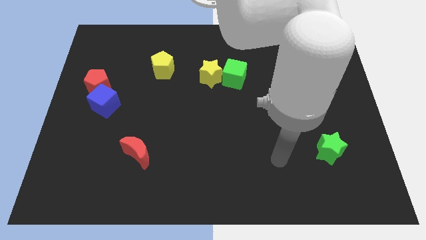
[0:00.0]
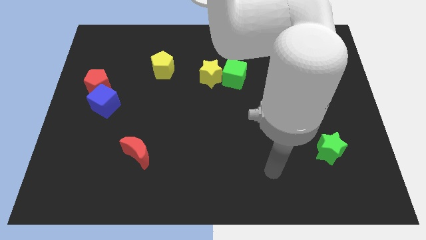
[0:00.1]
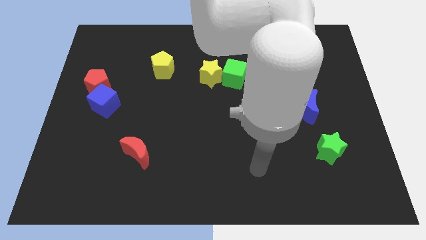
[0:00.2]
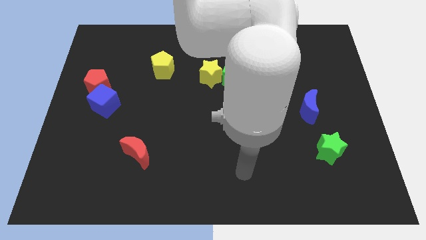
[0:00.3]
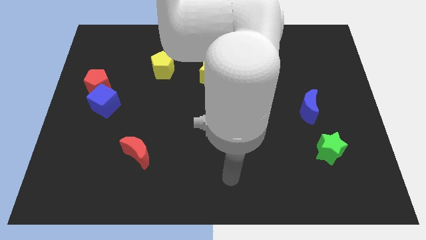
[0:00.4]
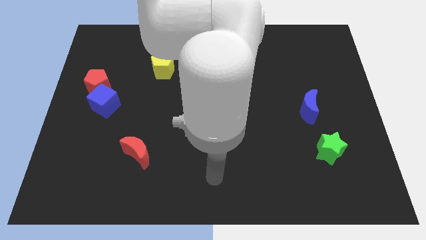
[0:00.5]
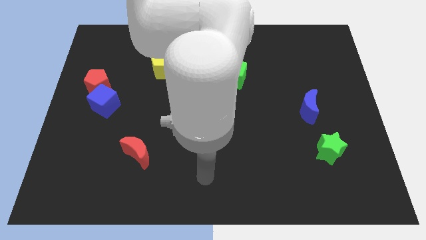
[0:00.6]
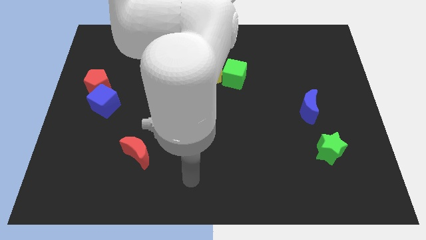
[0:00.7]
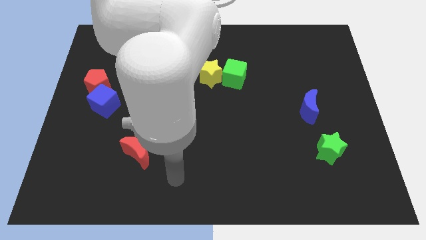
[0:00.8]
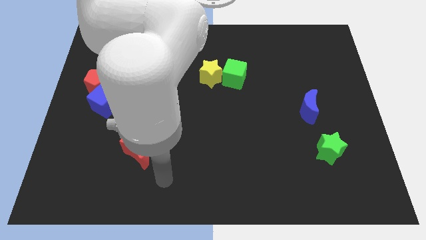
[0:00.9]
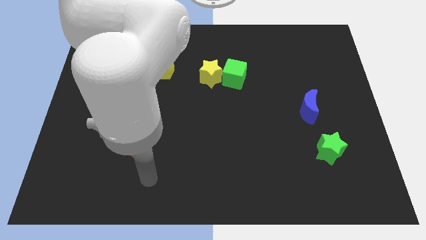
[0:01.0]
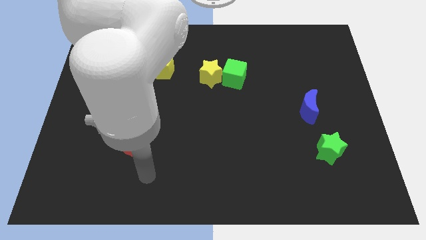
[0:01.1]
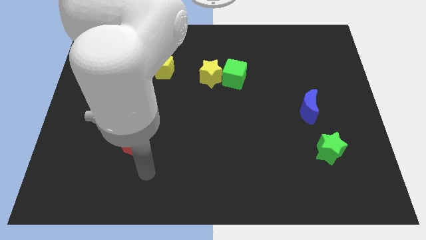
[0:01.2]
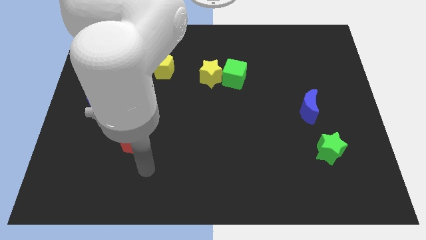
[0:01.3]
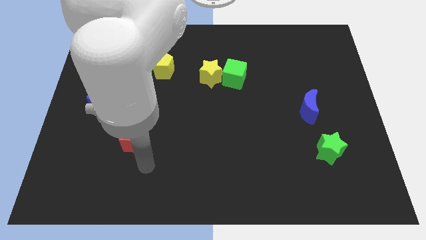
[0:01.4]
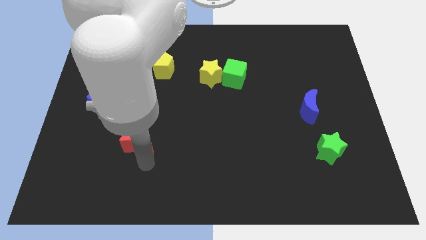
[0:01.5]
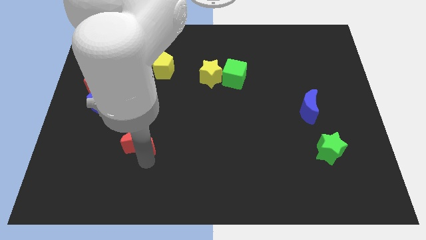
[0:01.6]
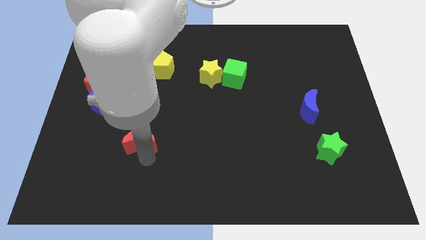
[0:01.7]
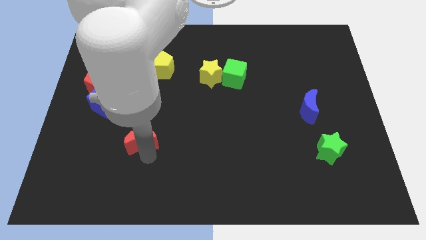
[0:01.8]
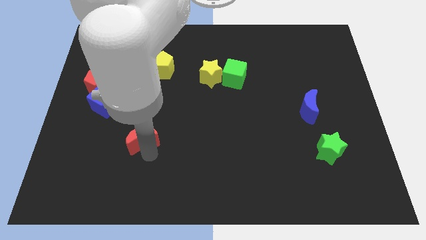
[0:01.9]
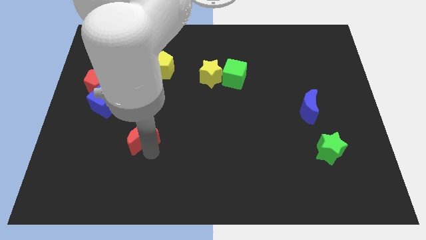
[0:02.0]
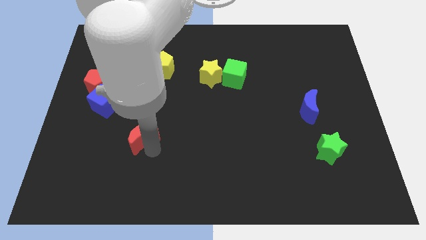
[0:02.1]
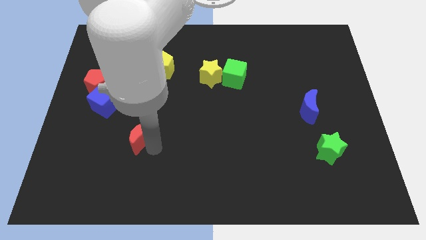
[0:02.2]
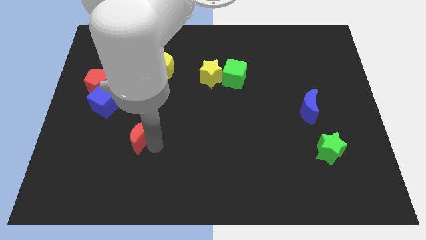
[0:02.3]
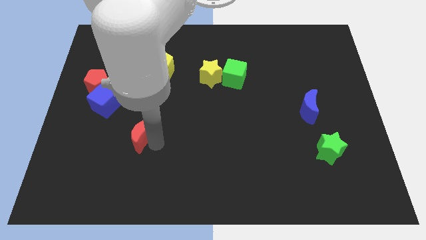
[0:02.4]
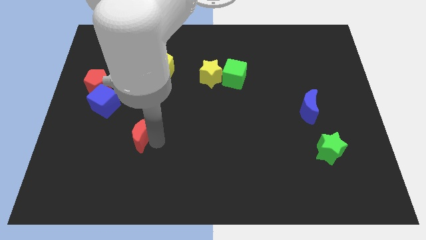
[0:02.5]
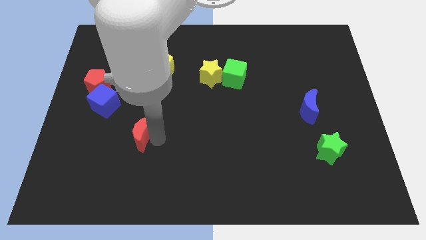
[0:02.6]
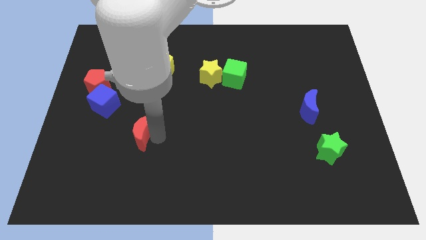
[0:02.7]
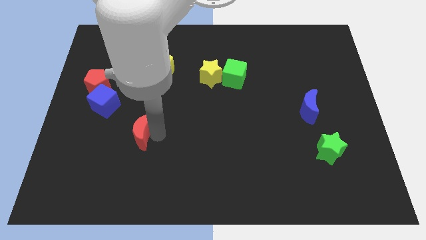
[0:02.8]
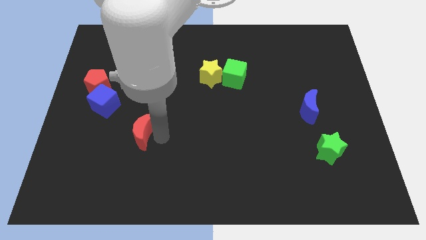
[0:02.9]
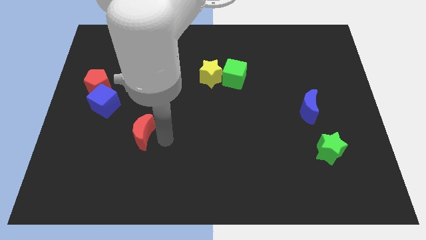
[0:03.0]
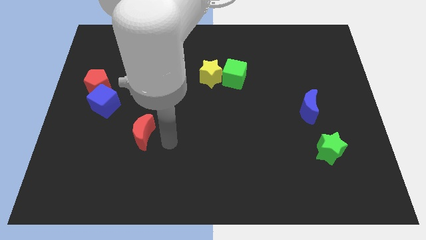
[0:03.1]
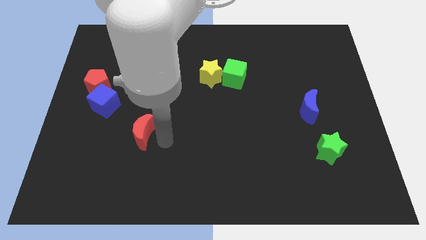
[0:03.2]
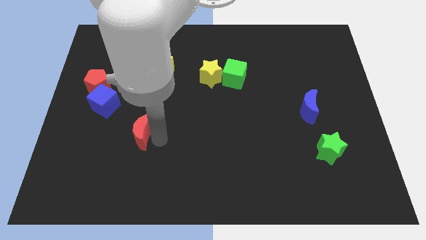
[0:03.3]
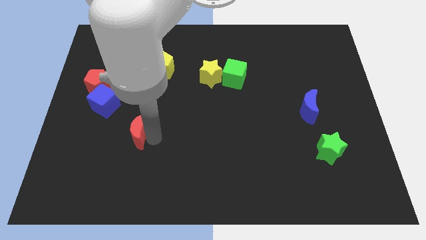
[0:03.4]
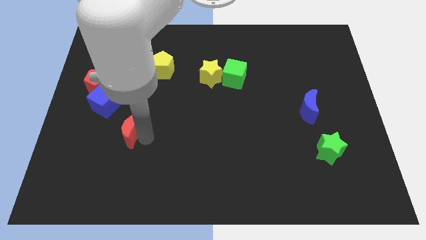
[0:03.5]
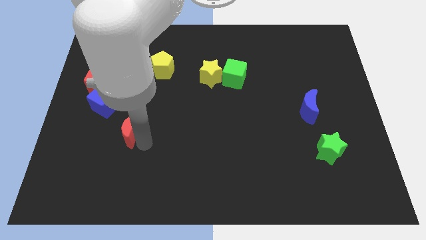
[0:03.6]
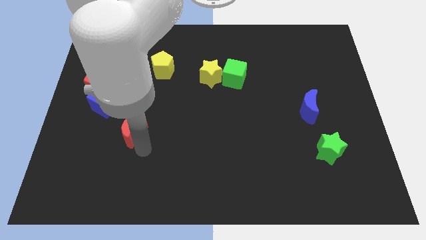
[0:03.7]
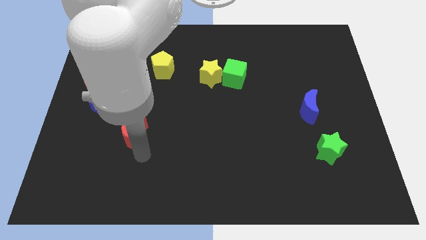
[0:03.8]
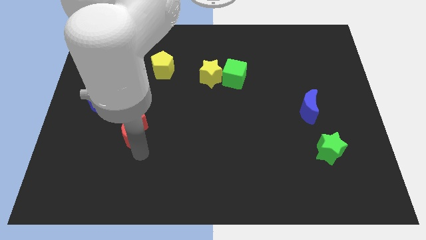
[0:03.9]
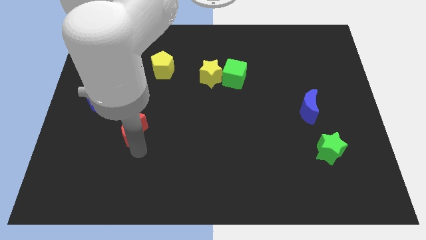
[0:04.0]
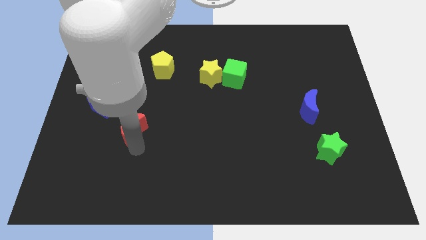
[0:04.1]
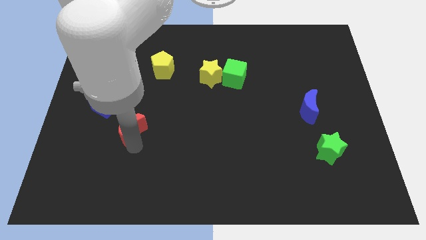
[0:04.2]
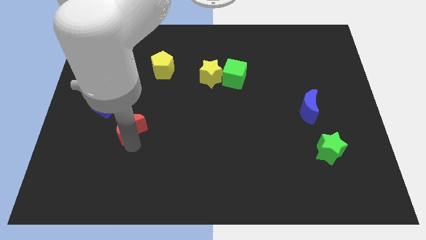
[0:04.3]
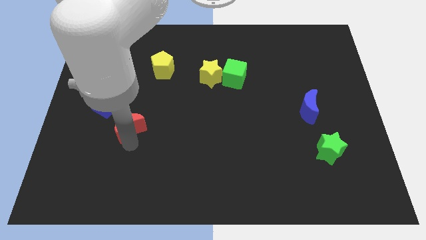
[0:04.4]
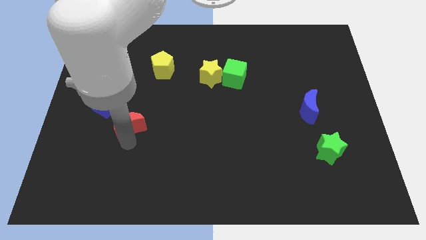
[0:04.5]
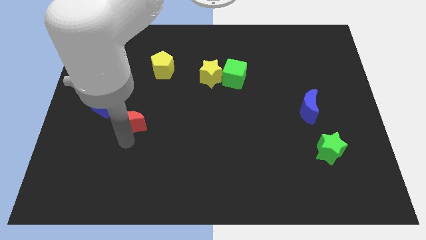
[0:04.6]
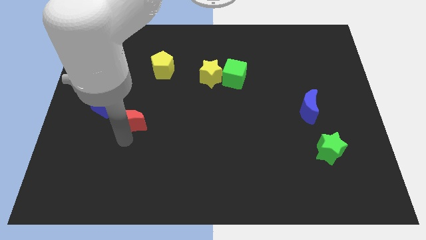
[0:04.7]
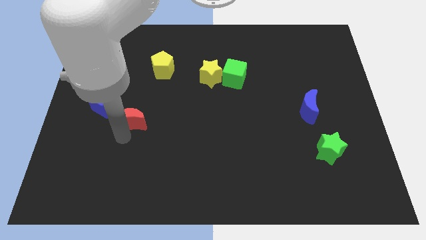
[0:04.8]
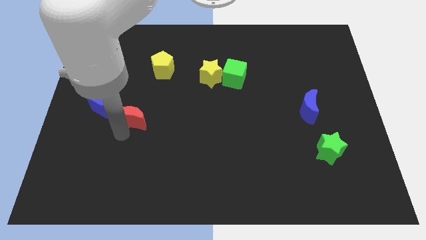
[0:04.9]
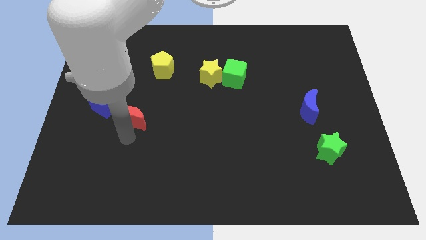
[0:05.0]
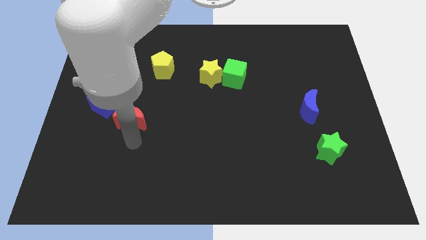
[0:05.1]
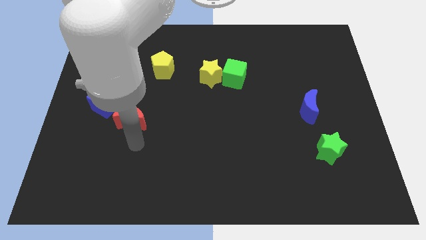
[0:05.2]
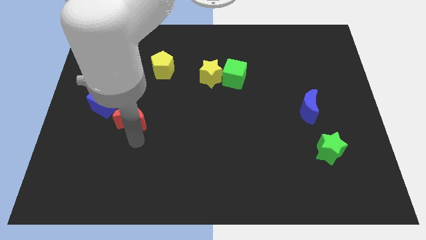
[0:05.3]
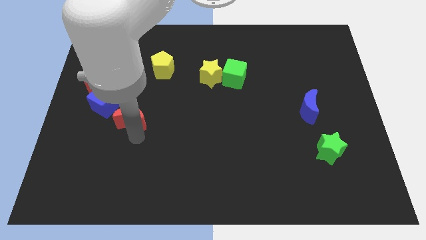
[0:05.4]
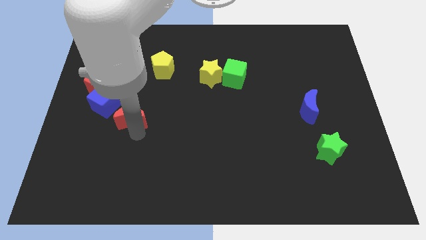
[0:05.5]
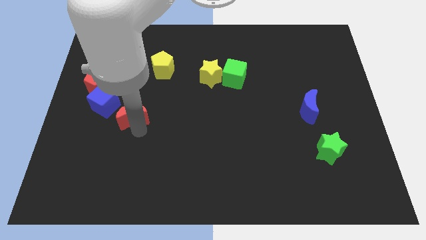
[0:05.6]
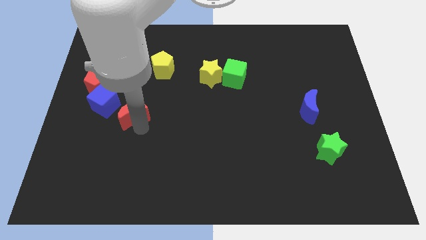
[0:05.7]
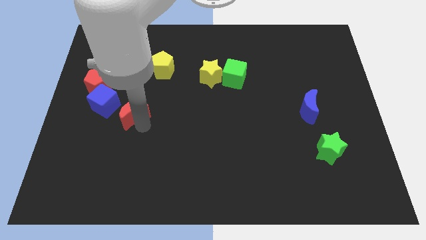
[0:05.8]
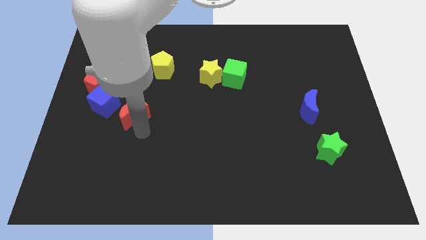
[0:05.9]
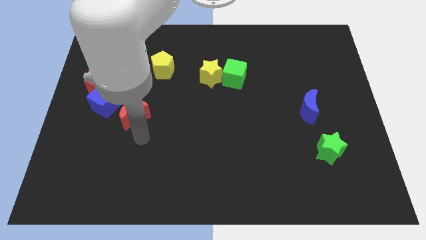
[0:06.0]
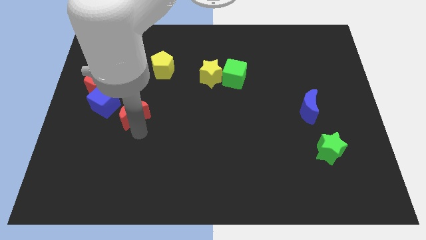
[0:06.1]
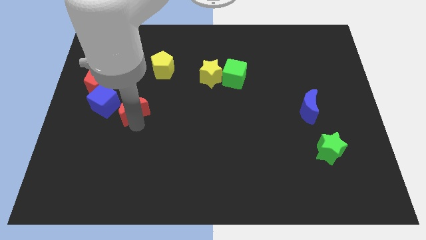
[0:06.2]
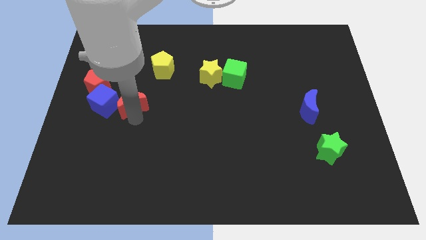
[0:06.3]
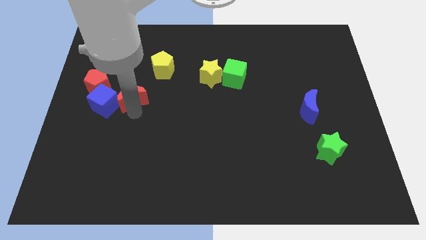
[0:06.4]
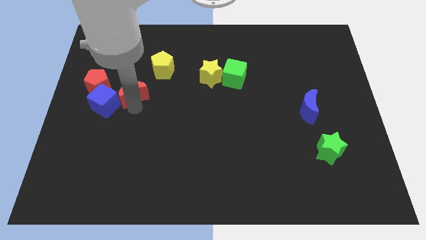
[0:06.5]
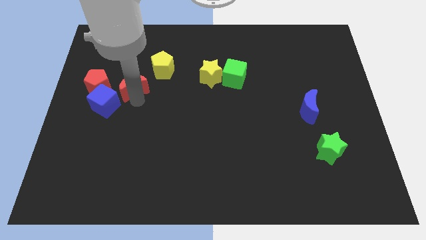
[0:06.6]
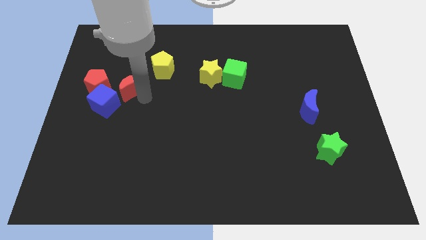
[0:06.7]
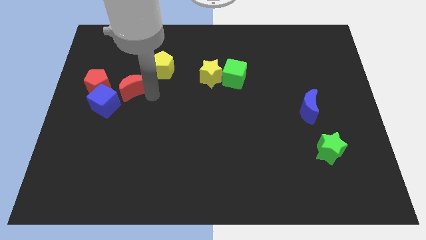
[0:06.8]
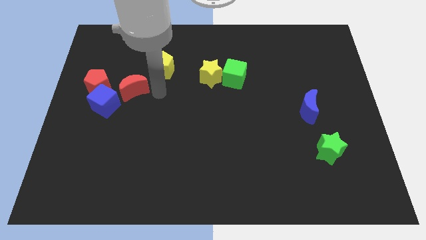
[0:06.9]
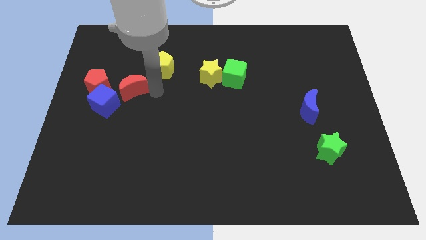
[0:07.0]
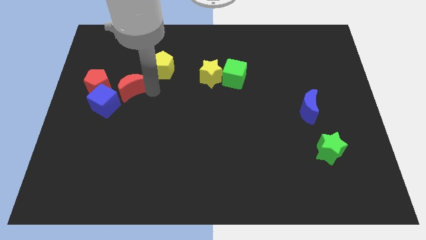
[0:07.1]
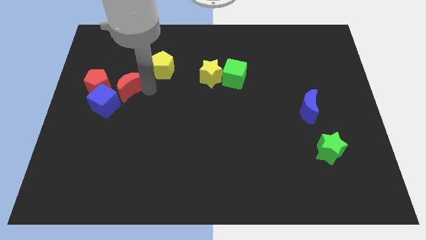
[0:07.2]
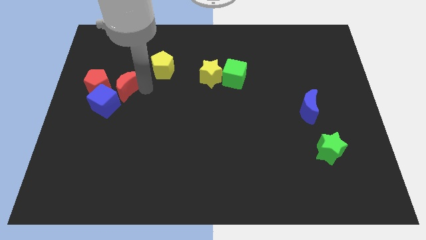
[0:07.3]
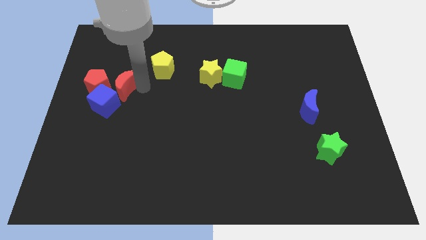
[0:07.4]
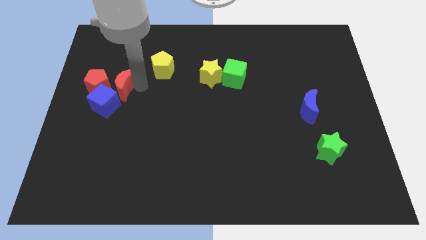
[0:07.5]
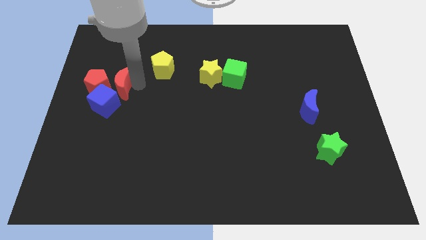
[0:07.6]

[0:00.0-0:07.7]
move the red moon towards the red pentagon
